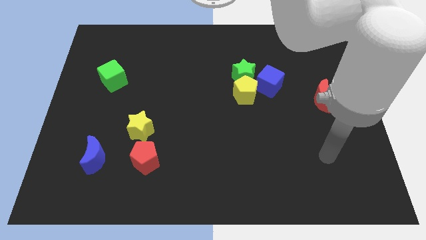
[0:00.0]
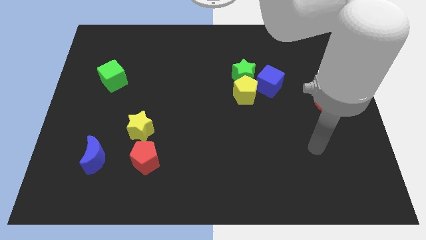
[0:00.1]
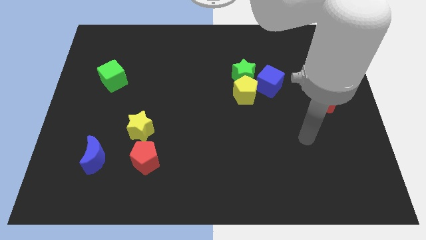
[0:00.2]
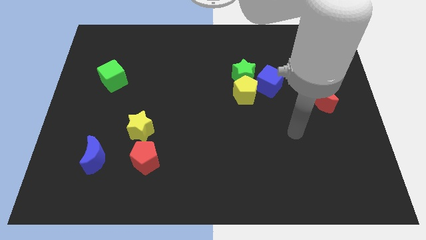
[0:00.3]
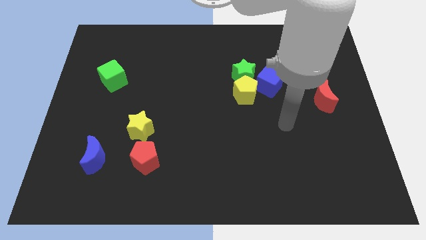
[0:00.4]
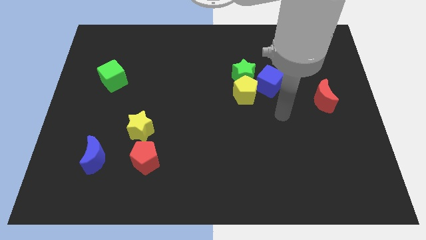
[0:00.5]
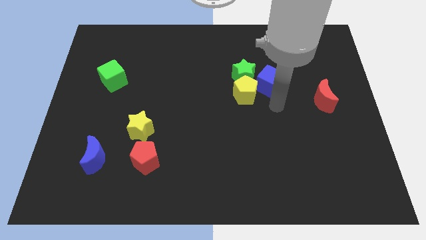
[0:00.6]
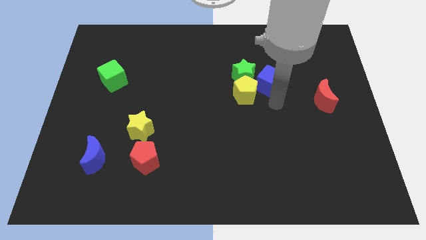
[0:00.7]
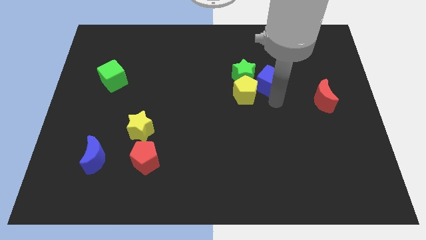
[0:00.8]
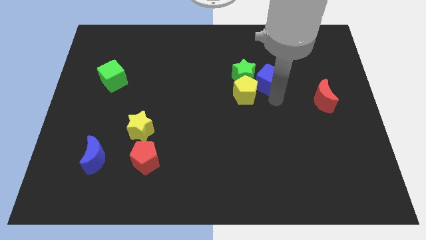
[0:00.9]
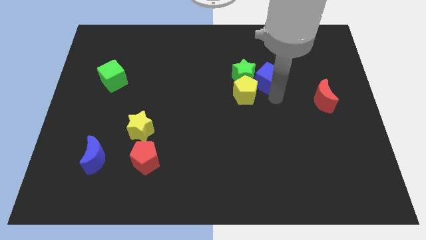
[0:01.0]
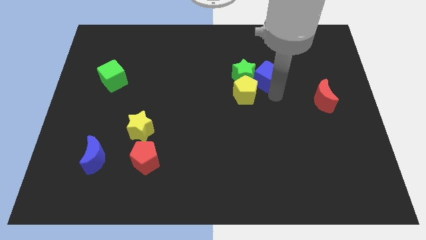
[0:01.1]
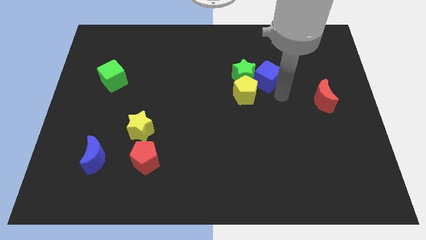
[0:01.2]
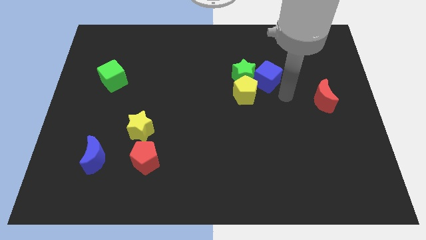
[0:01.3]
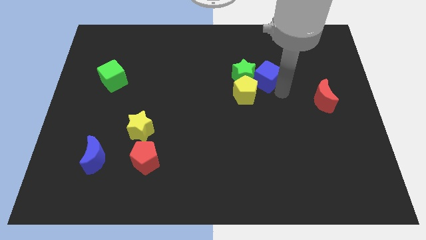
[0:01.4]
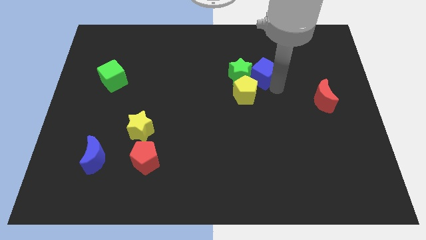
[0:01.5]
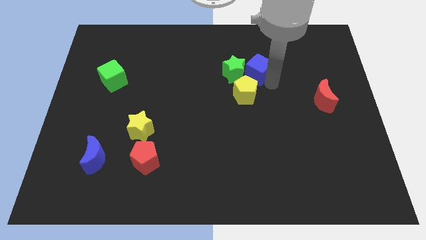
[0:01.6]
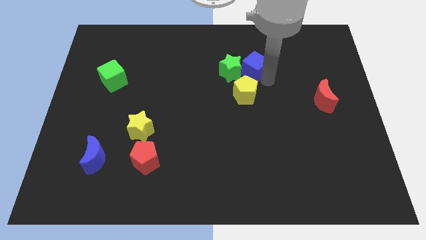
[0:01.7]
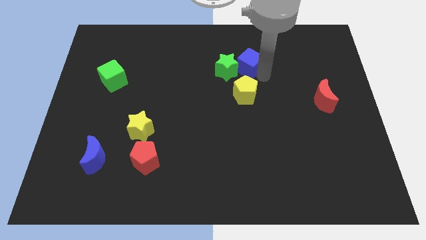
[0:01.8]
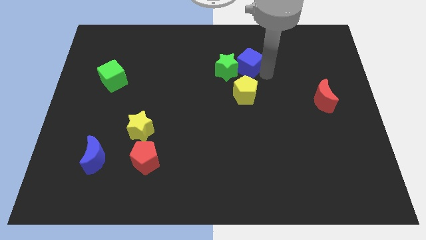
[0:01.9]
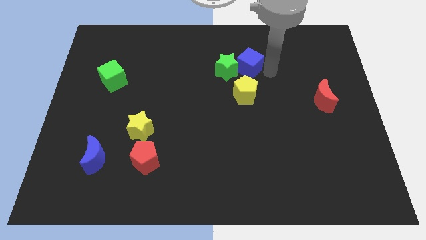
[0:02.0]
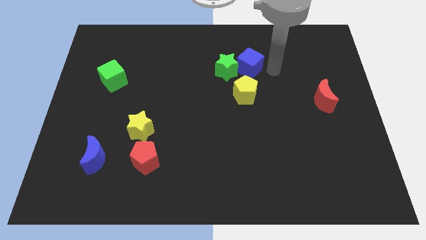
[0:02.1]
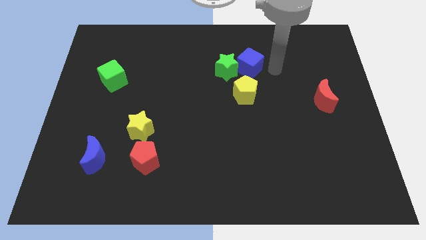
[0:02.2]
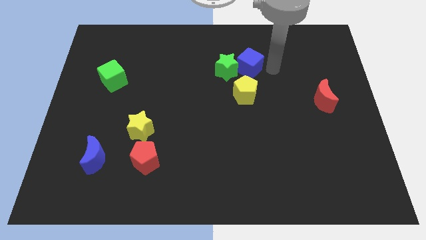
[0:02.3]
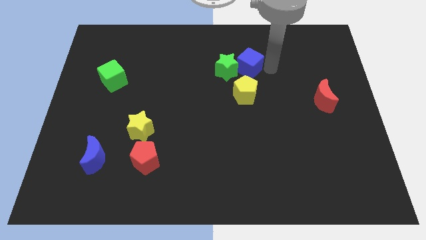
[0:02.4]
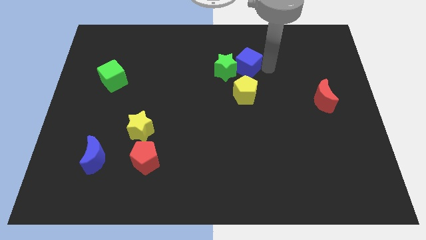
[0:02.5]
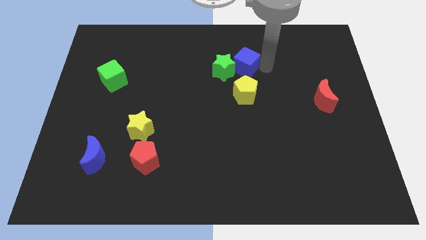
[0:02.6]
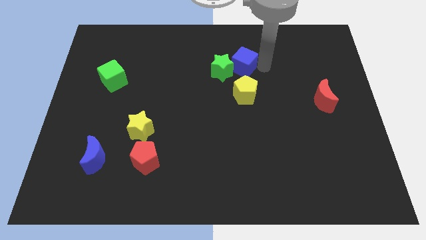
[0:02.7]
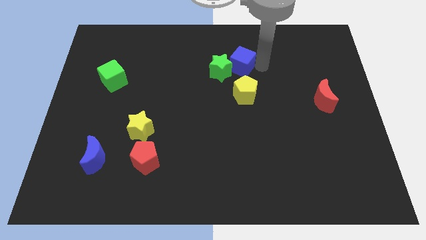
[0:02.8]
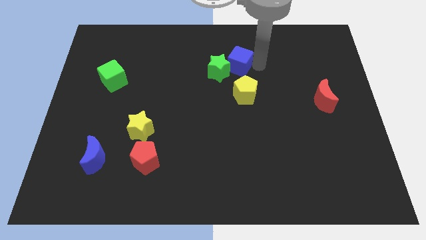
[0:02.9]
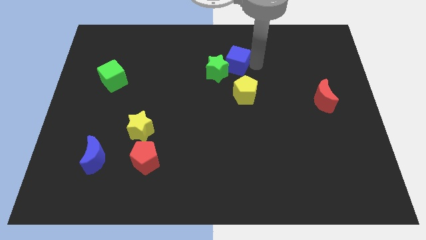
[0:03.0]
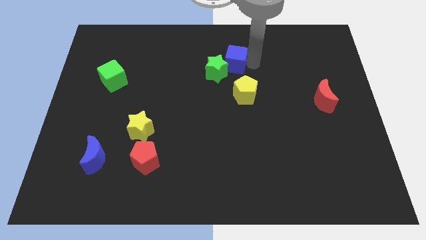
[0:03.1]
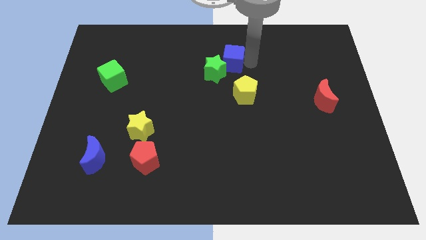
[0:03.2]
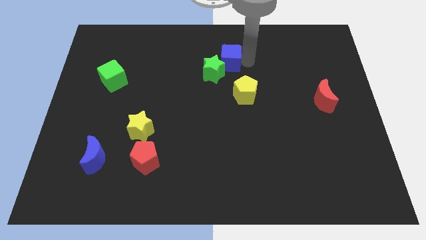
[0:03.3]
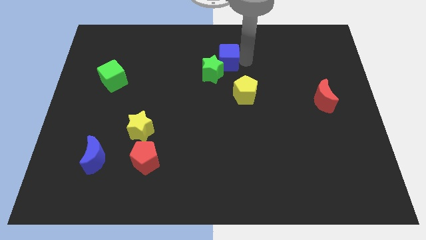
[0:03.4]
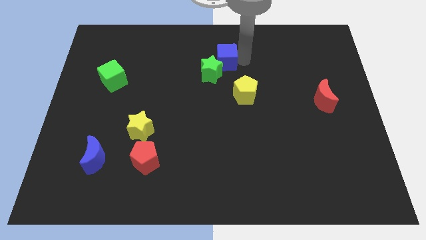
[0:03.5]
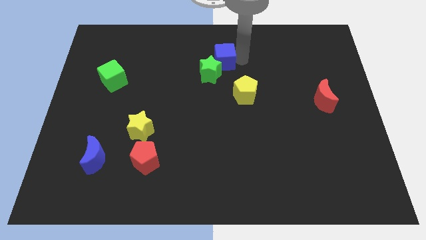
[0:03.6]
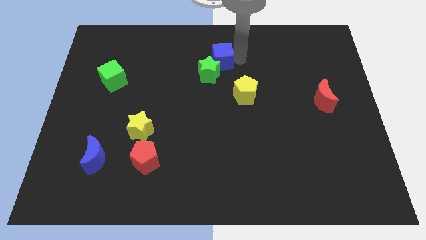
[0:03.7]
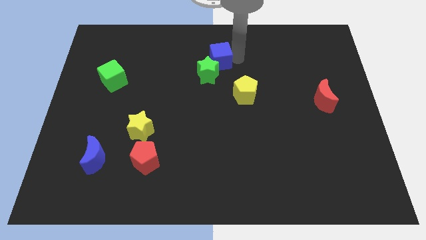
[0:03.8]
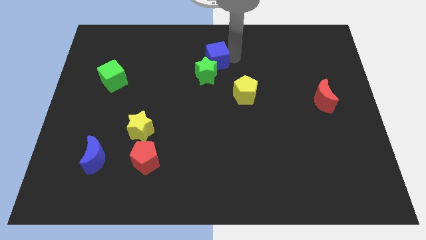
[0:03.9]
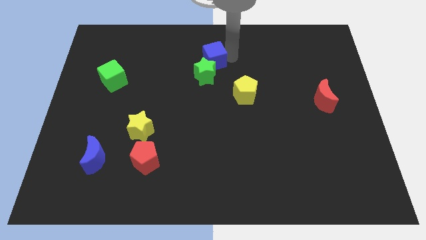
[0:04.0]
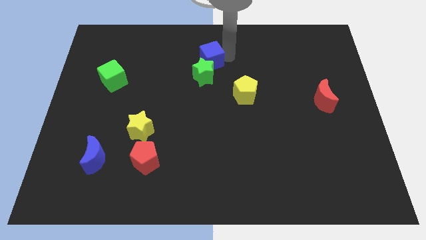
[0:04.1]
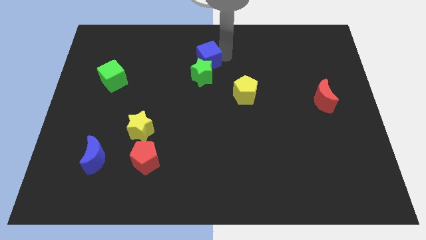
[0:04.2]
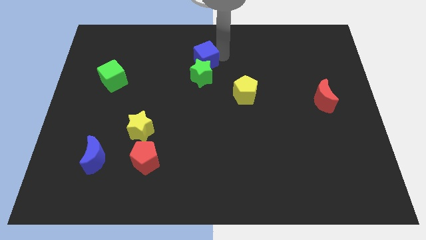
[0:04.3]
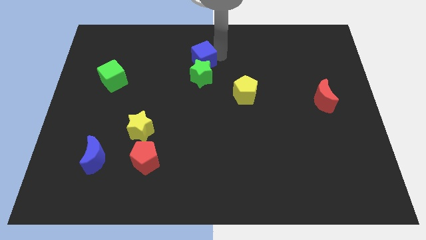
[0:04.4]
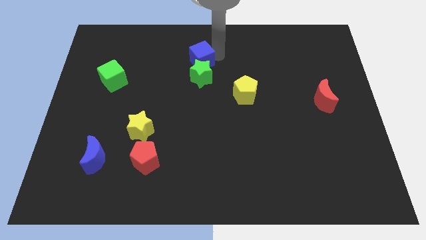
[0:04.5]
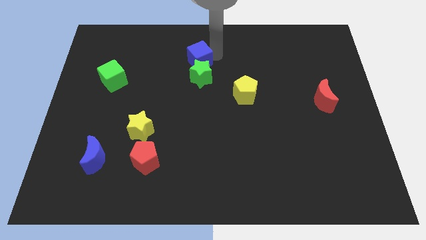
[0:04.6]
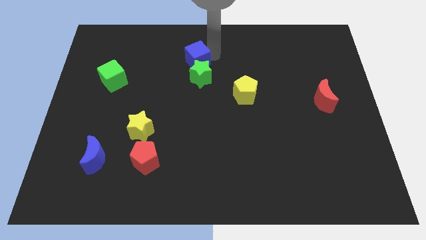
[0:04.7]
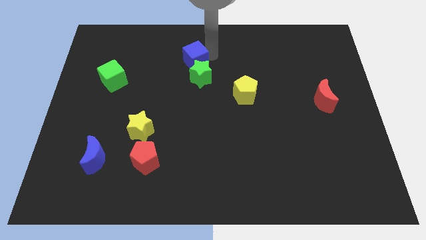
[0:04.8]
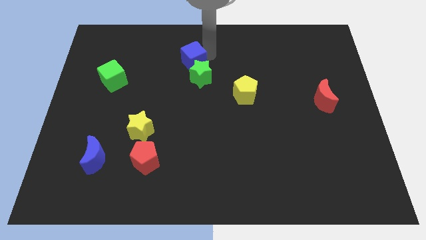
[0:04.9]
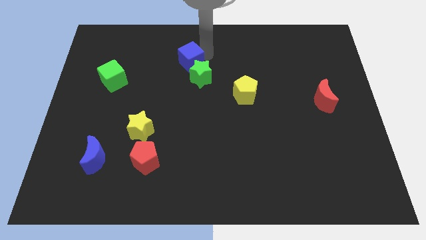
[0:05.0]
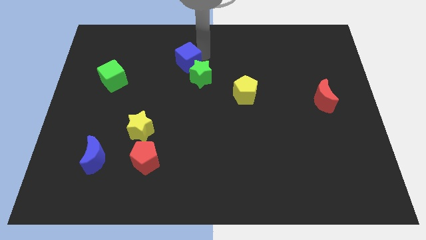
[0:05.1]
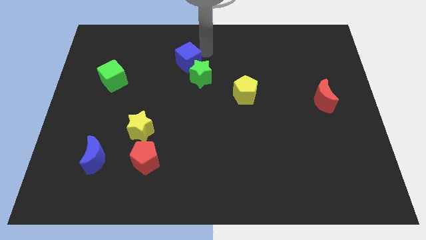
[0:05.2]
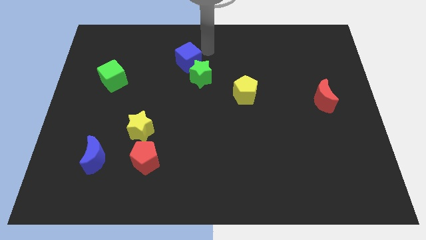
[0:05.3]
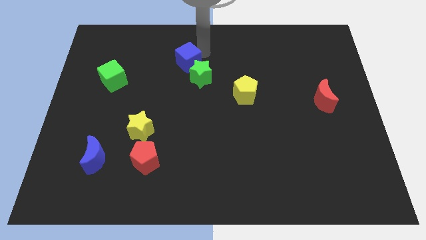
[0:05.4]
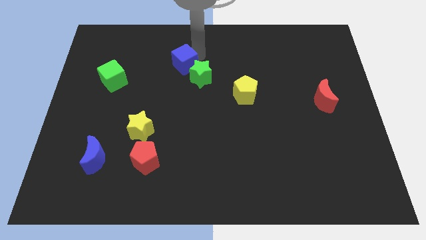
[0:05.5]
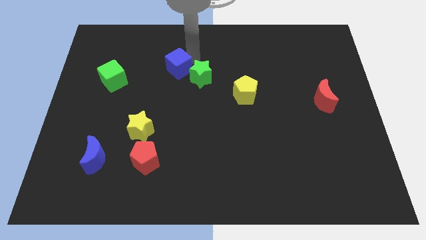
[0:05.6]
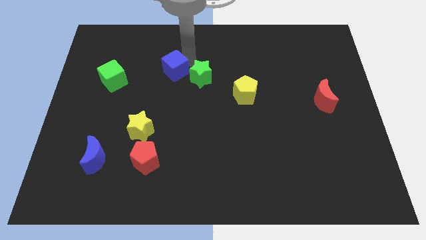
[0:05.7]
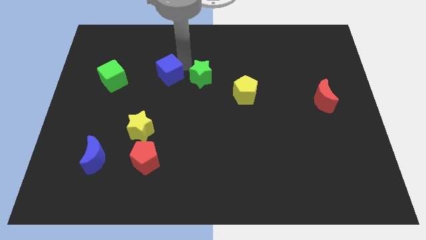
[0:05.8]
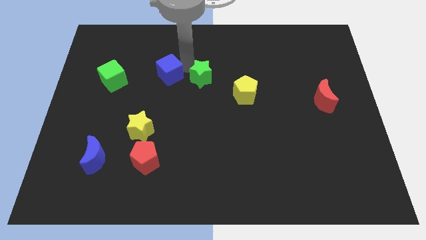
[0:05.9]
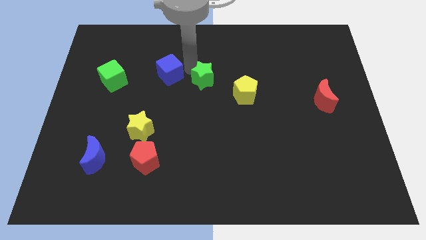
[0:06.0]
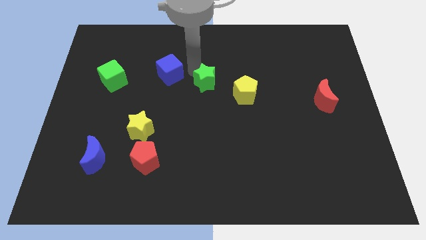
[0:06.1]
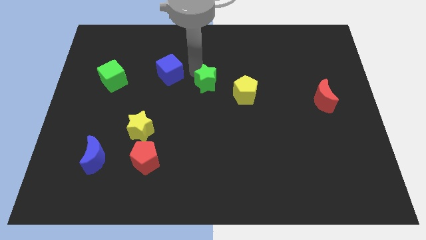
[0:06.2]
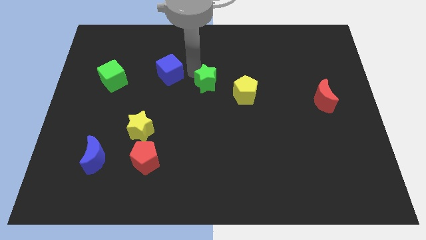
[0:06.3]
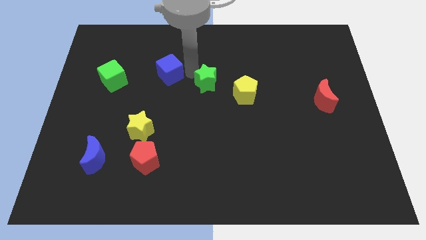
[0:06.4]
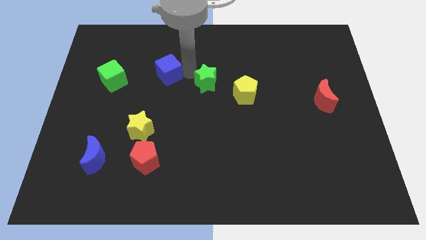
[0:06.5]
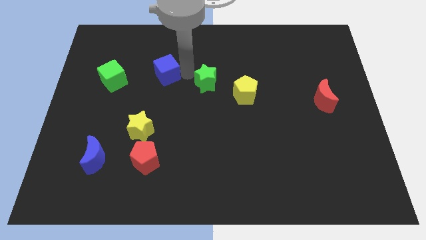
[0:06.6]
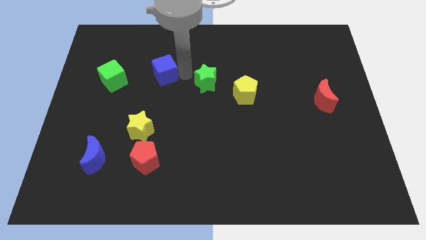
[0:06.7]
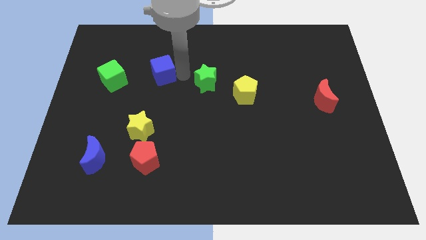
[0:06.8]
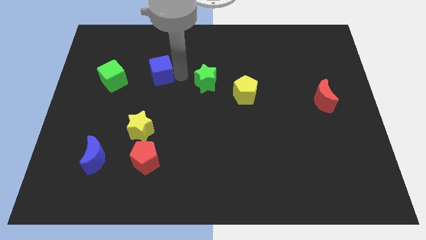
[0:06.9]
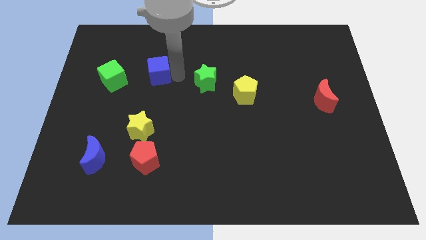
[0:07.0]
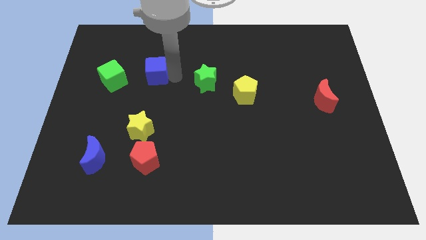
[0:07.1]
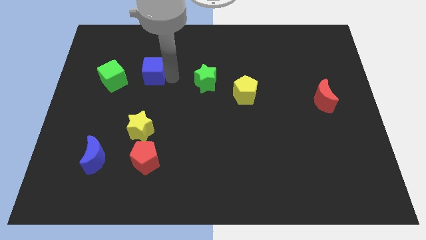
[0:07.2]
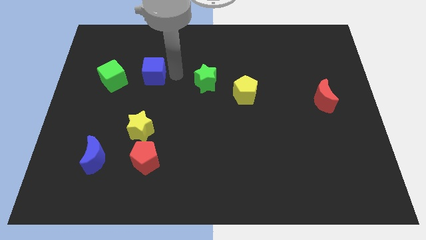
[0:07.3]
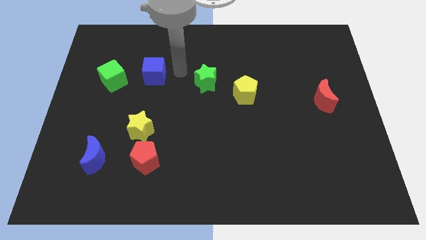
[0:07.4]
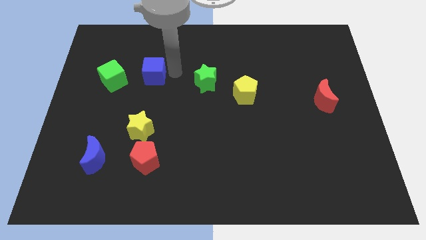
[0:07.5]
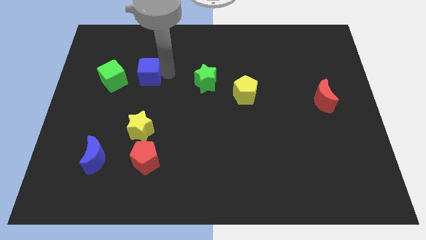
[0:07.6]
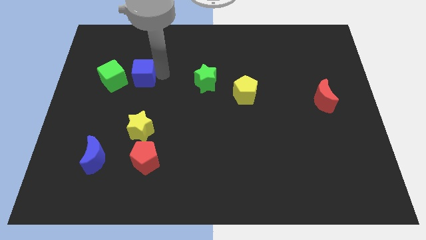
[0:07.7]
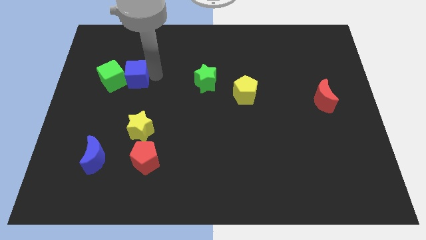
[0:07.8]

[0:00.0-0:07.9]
slide the blue cube towards the green cube

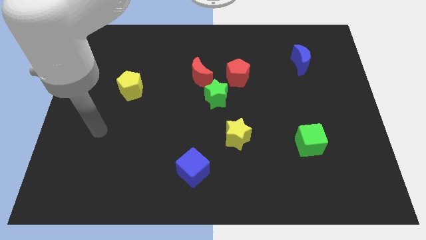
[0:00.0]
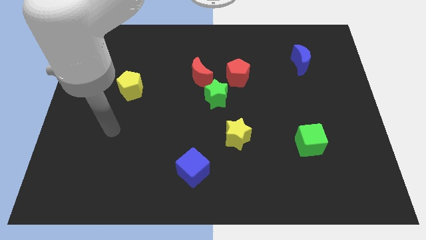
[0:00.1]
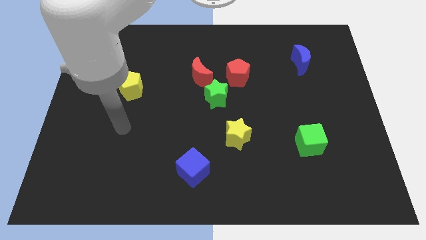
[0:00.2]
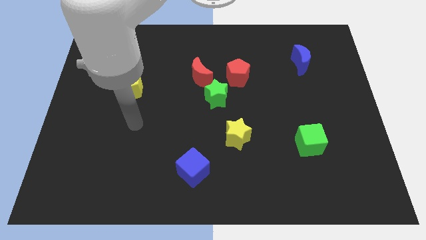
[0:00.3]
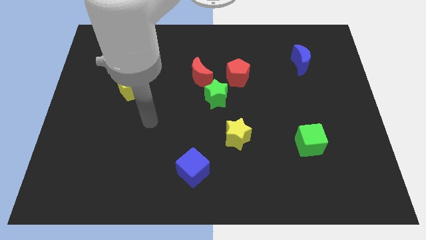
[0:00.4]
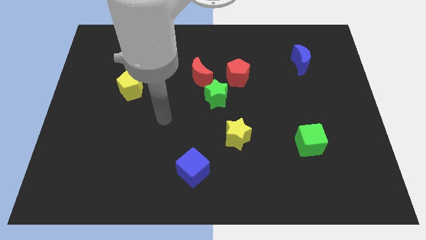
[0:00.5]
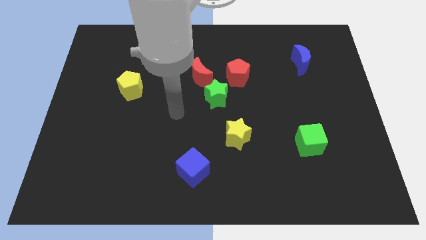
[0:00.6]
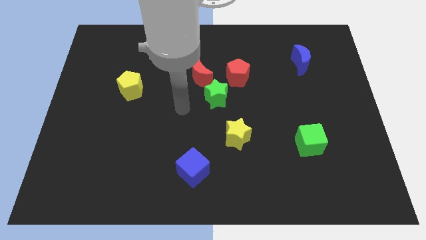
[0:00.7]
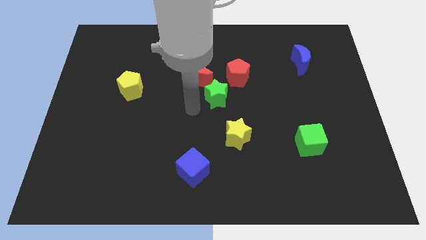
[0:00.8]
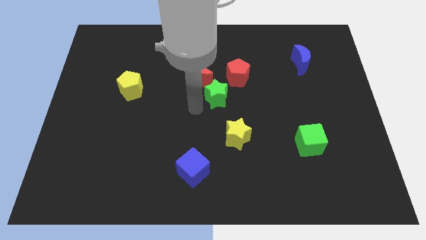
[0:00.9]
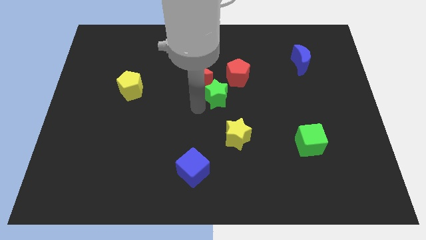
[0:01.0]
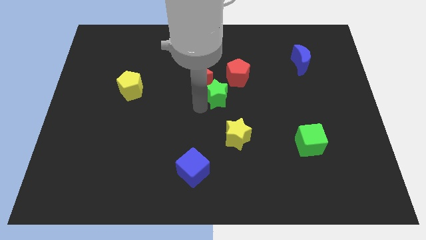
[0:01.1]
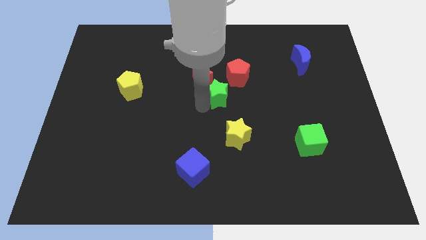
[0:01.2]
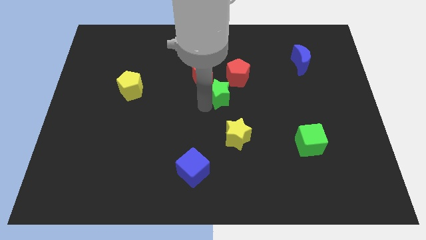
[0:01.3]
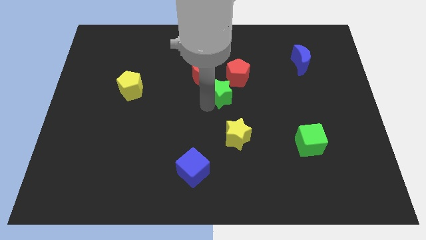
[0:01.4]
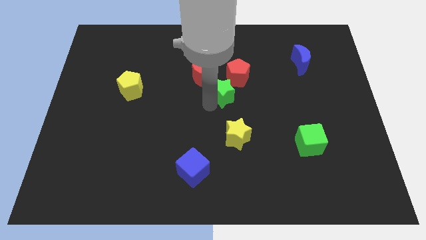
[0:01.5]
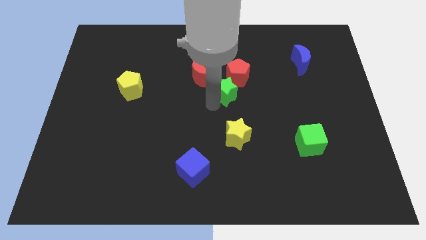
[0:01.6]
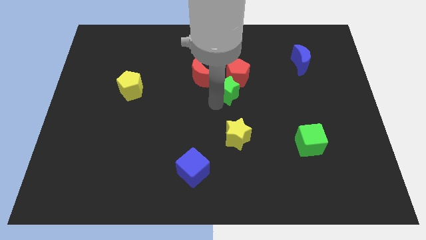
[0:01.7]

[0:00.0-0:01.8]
put the green star next to the red pentagon
